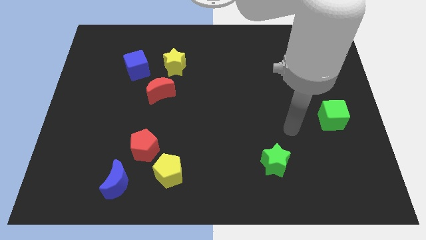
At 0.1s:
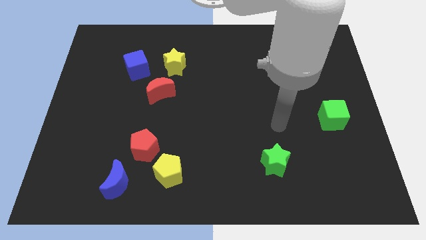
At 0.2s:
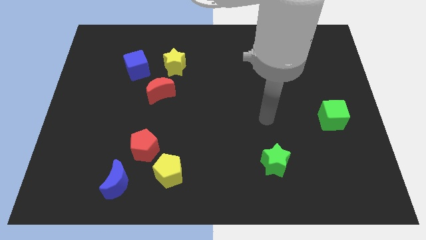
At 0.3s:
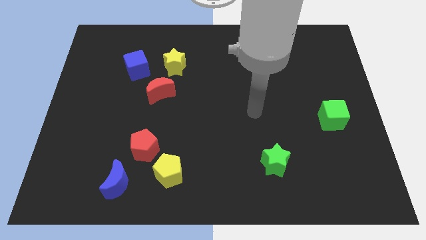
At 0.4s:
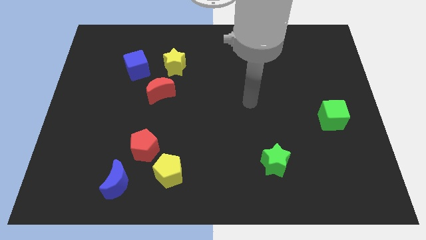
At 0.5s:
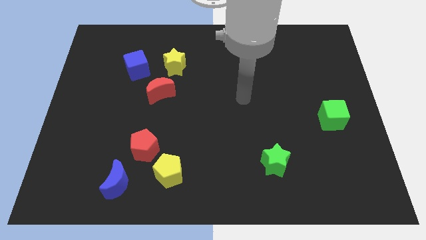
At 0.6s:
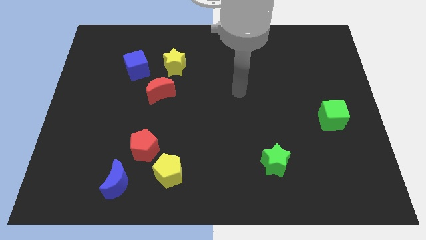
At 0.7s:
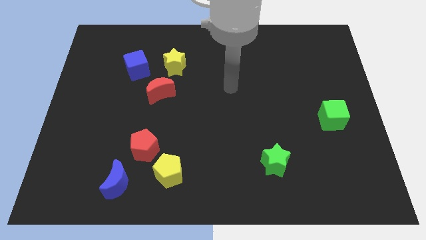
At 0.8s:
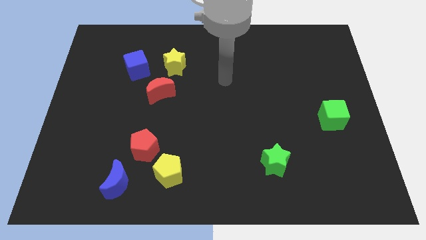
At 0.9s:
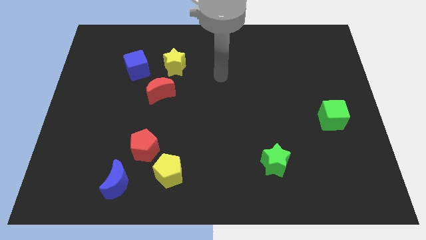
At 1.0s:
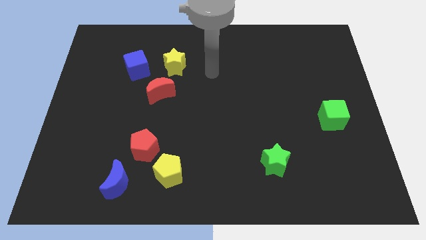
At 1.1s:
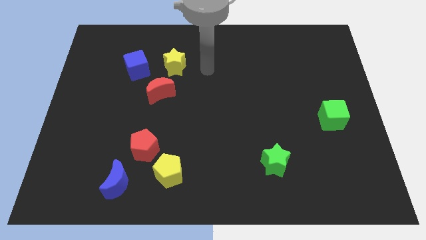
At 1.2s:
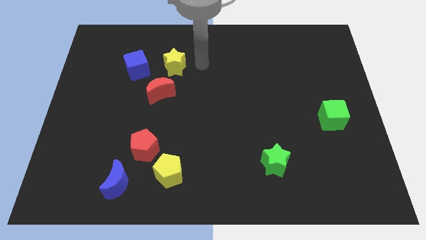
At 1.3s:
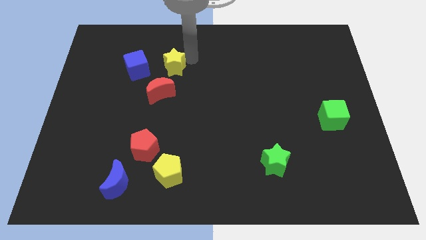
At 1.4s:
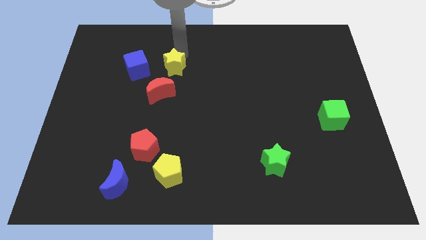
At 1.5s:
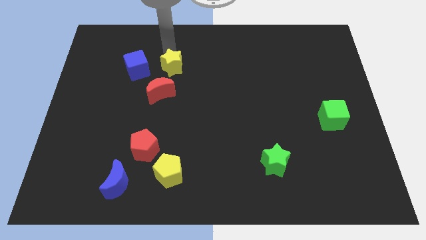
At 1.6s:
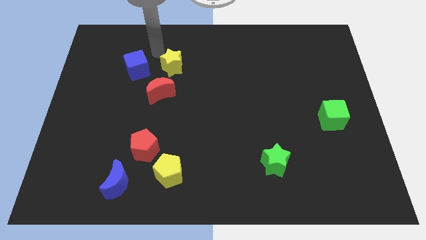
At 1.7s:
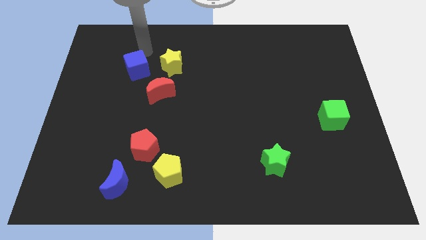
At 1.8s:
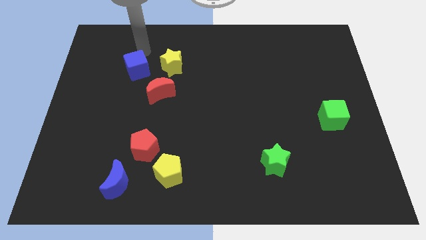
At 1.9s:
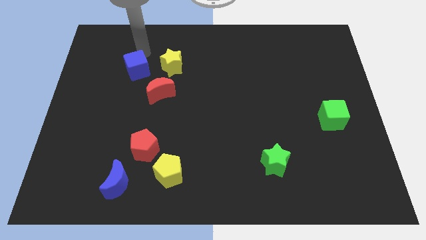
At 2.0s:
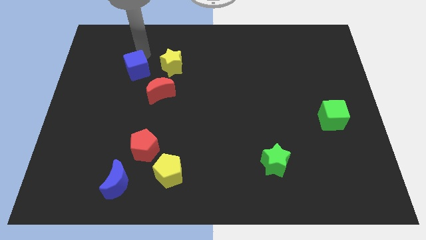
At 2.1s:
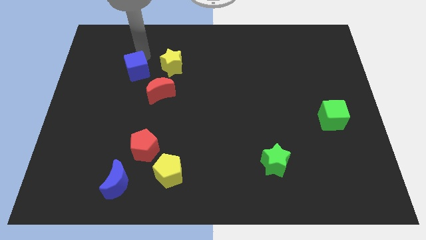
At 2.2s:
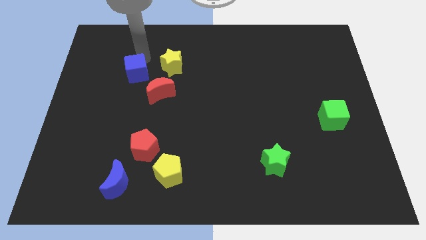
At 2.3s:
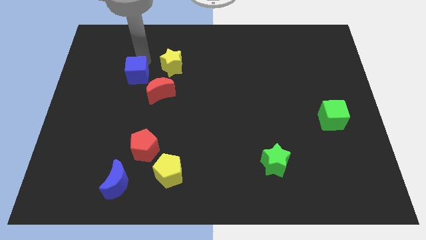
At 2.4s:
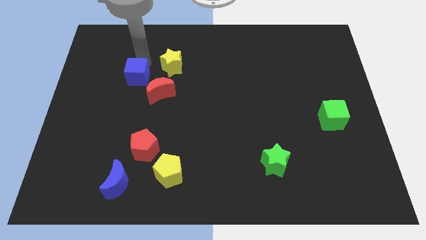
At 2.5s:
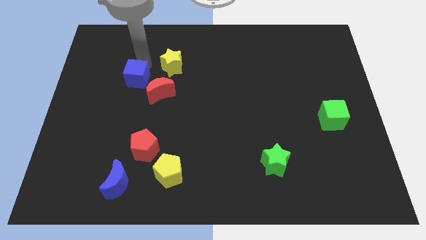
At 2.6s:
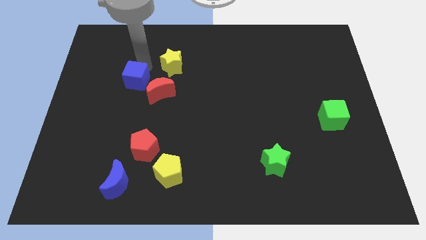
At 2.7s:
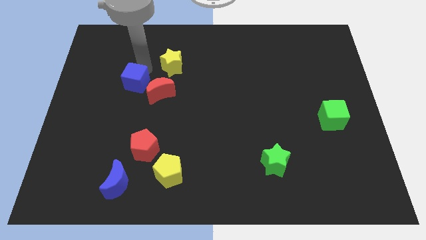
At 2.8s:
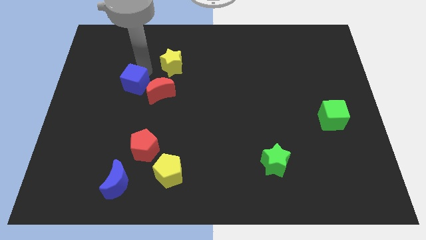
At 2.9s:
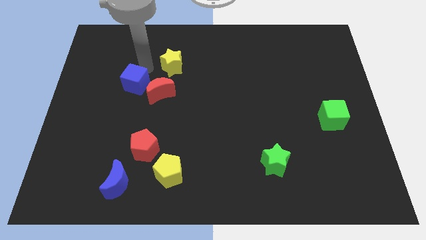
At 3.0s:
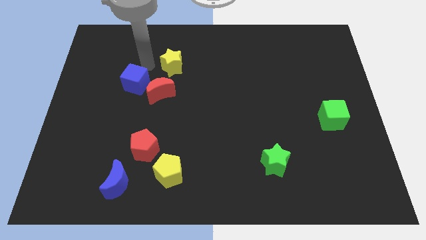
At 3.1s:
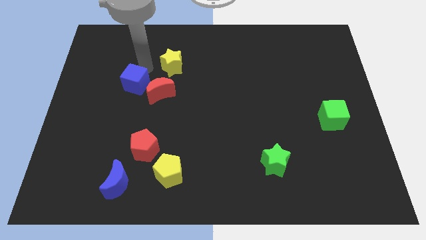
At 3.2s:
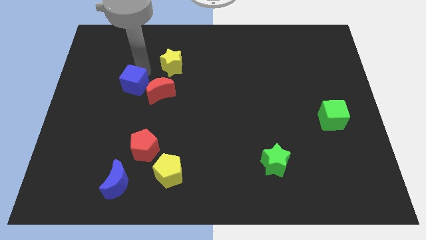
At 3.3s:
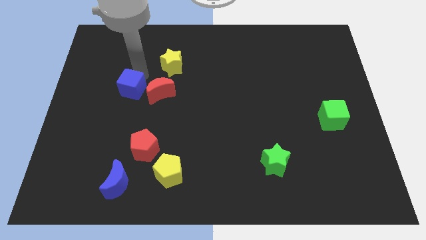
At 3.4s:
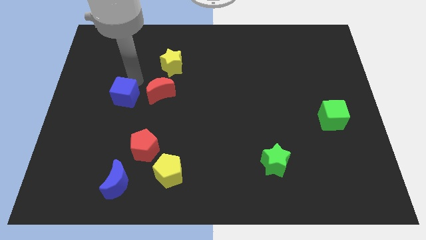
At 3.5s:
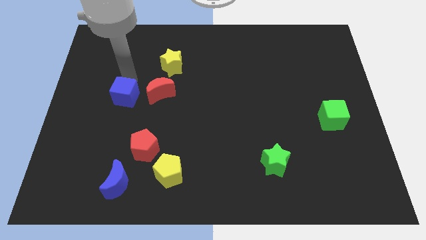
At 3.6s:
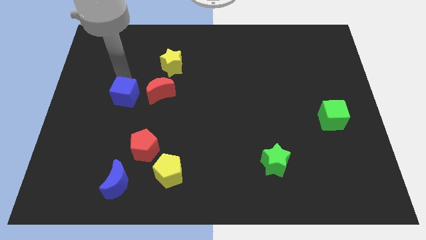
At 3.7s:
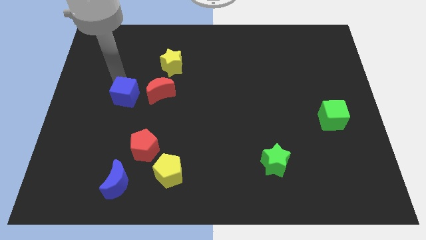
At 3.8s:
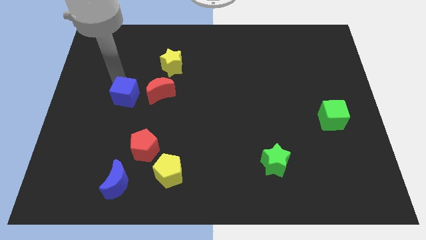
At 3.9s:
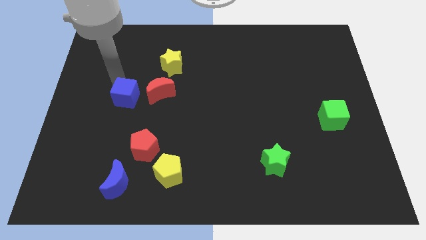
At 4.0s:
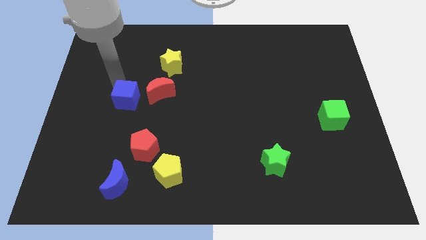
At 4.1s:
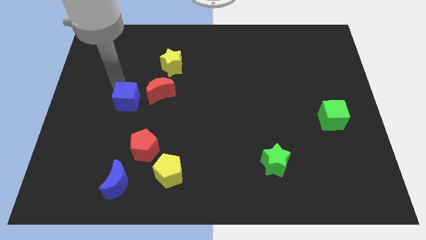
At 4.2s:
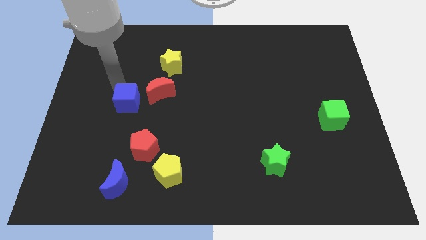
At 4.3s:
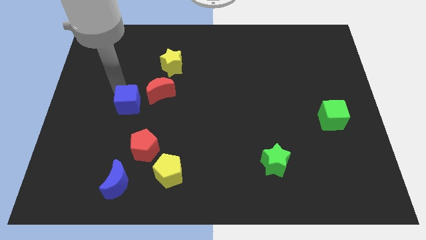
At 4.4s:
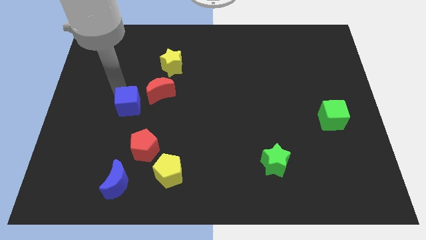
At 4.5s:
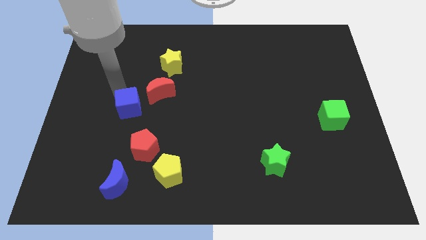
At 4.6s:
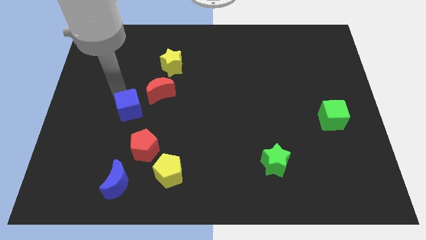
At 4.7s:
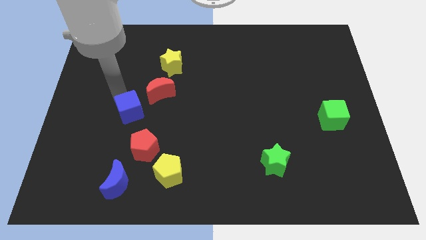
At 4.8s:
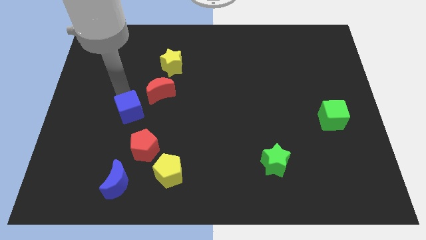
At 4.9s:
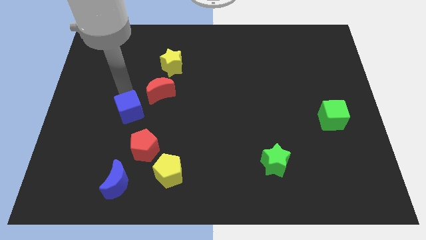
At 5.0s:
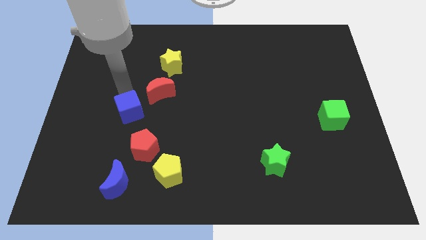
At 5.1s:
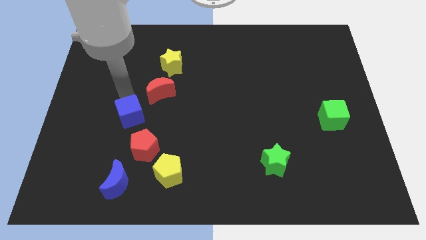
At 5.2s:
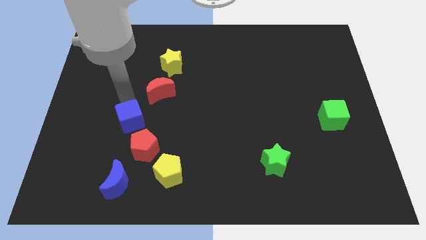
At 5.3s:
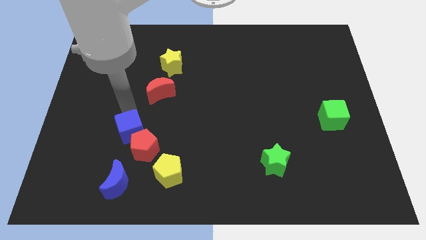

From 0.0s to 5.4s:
move the blue cube close to the red pentagon

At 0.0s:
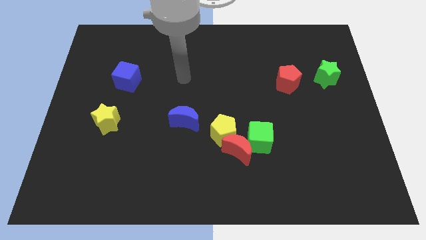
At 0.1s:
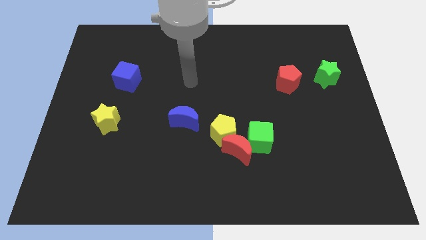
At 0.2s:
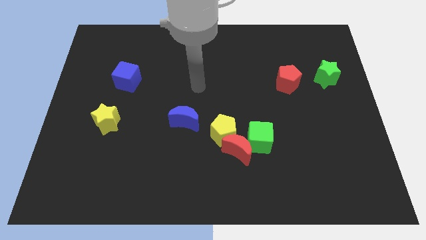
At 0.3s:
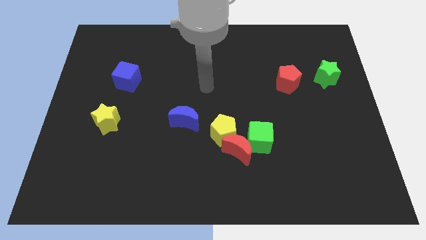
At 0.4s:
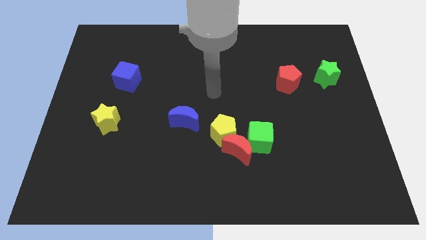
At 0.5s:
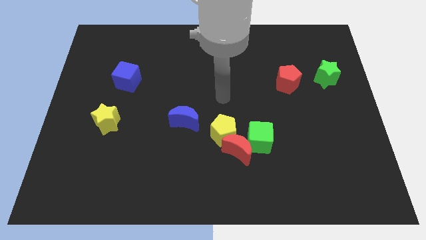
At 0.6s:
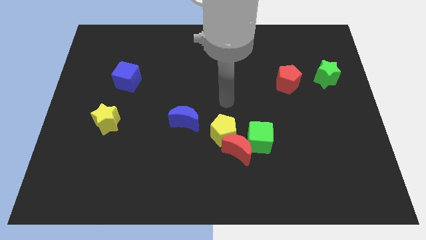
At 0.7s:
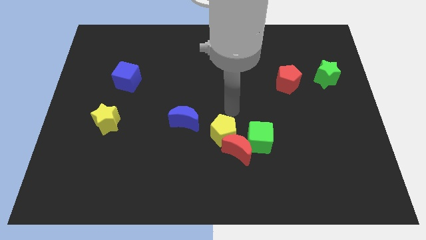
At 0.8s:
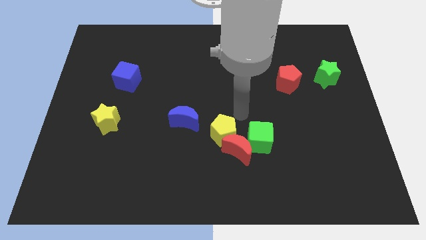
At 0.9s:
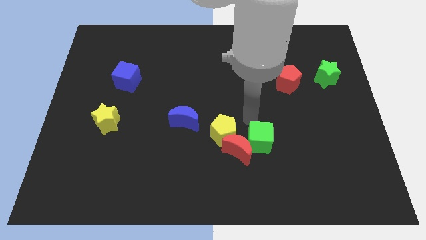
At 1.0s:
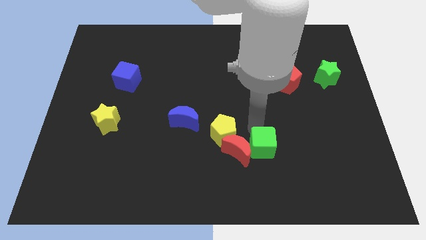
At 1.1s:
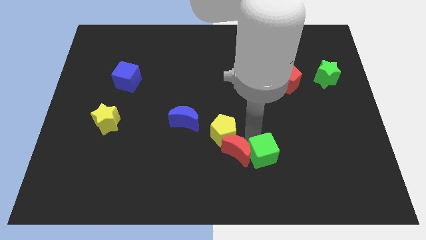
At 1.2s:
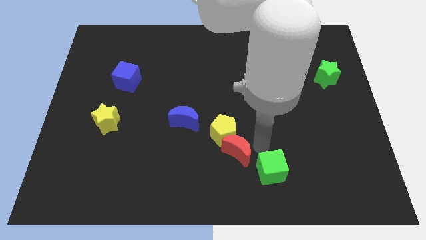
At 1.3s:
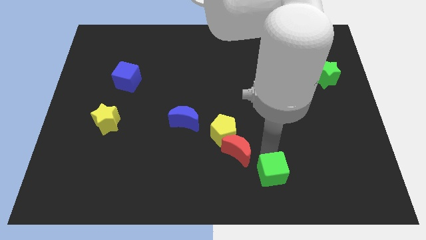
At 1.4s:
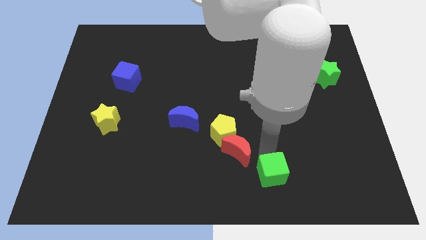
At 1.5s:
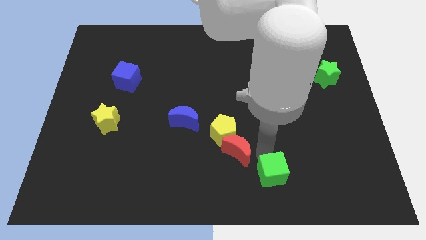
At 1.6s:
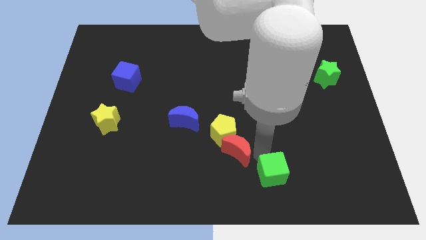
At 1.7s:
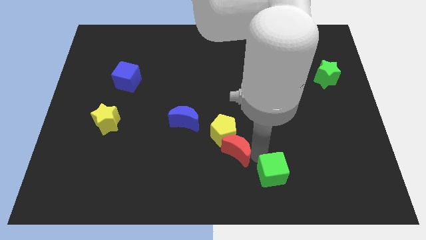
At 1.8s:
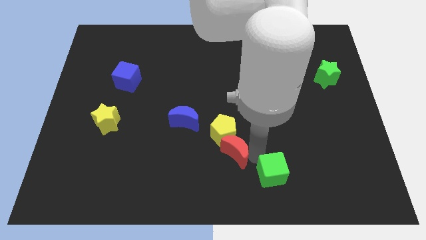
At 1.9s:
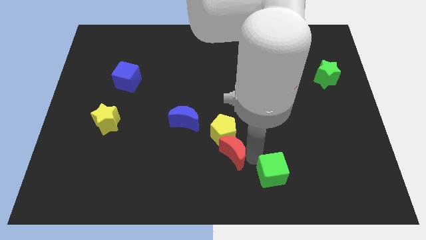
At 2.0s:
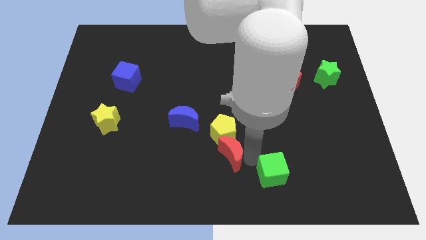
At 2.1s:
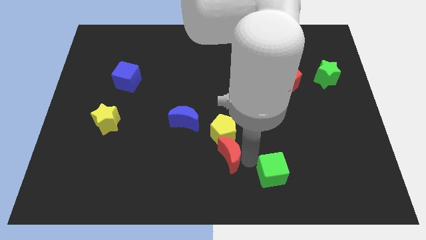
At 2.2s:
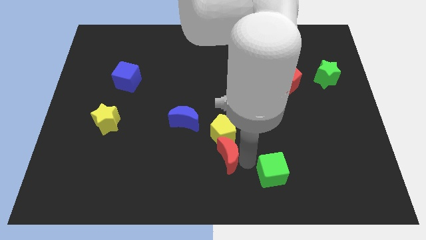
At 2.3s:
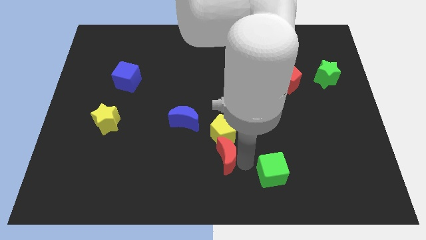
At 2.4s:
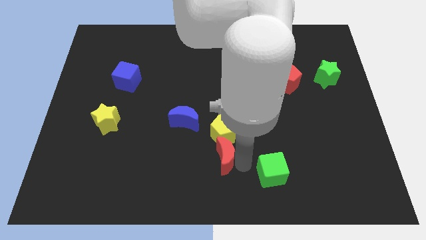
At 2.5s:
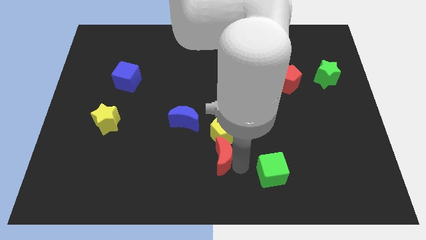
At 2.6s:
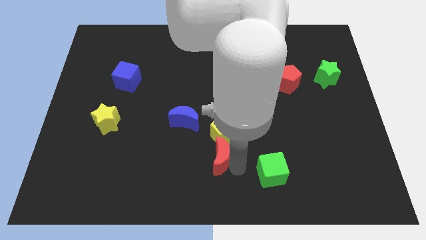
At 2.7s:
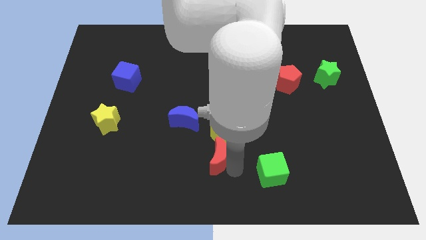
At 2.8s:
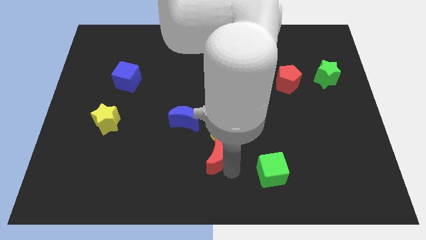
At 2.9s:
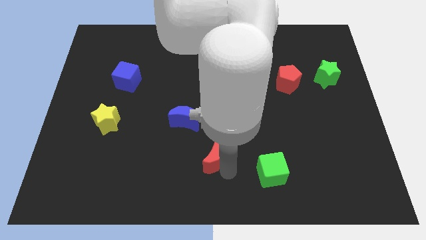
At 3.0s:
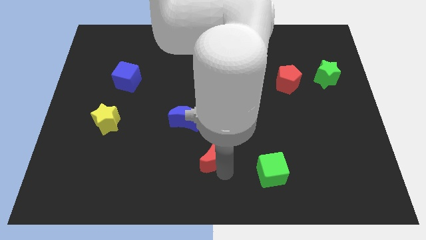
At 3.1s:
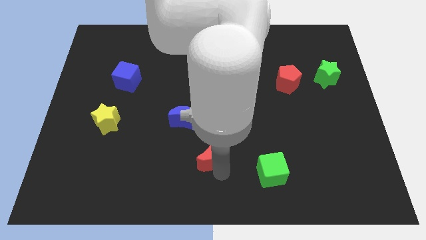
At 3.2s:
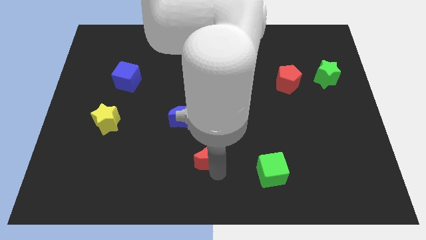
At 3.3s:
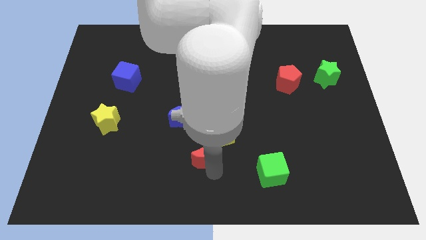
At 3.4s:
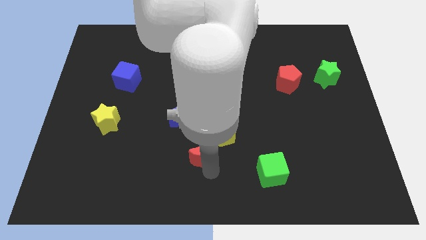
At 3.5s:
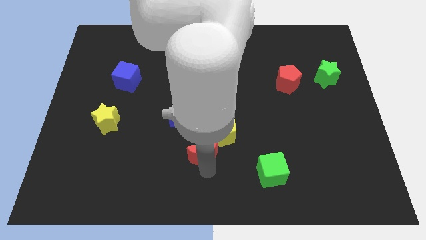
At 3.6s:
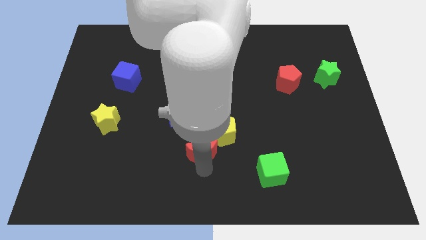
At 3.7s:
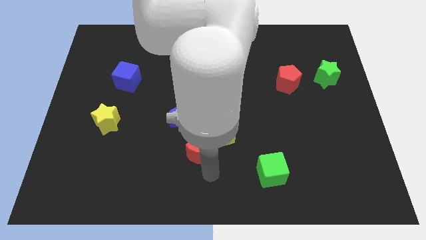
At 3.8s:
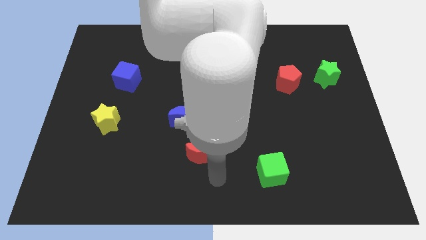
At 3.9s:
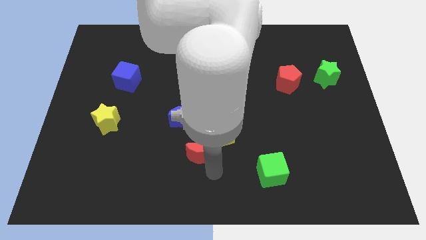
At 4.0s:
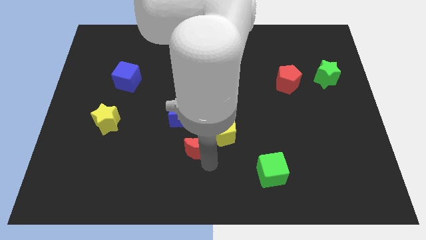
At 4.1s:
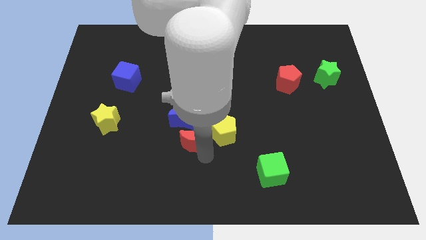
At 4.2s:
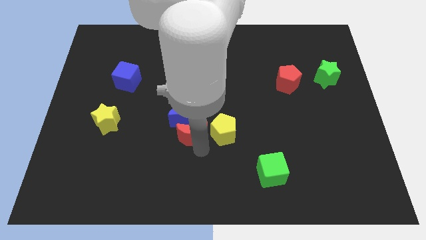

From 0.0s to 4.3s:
slide the red moon towards the blue moon
